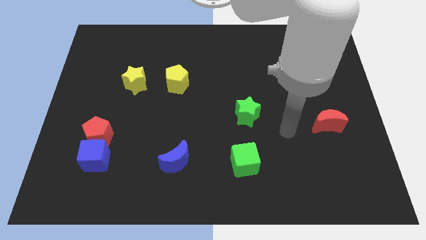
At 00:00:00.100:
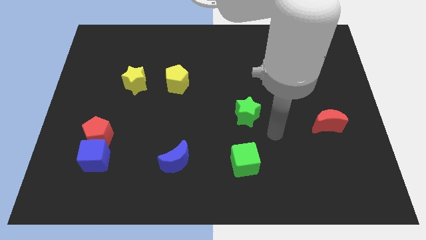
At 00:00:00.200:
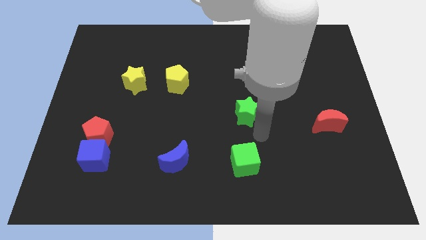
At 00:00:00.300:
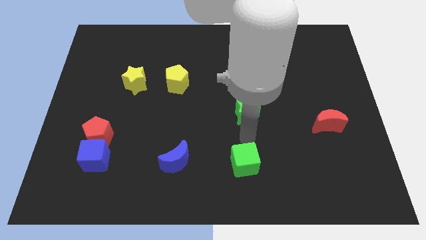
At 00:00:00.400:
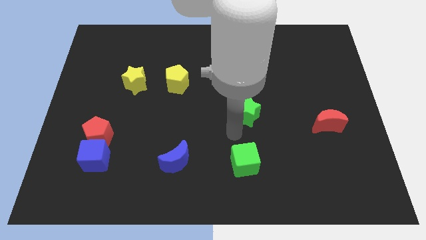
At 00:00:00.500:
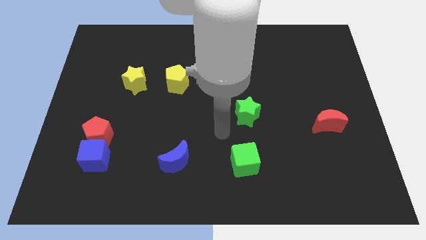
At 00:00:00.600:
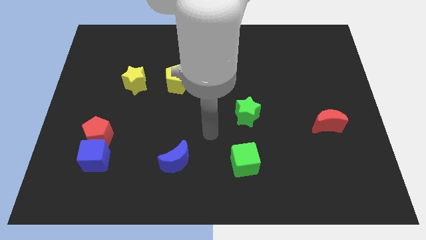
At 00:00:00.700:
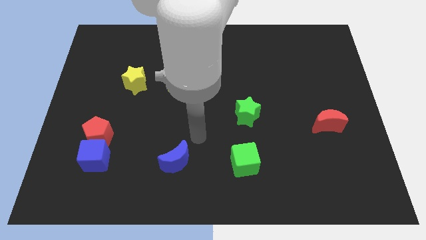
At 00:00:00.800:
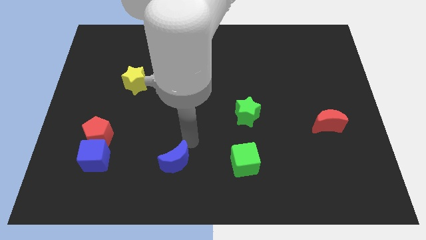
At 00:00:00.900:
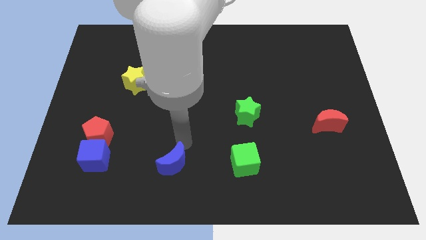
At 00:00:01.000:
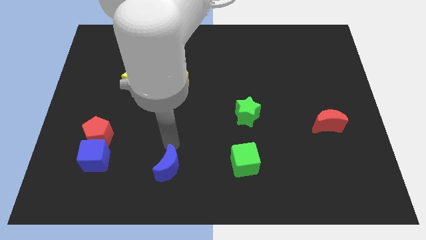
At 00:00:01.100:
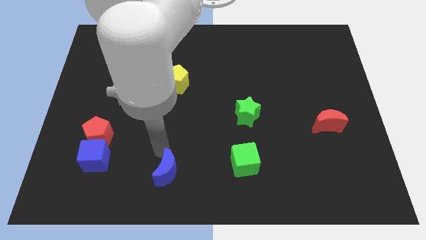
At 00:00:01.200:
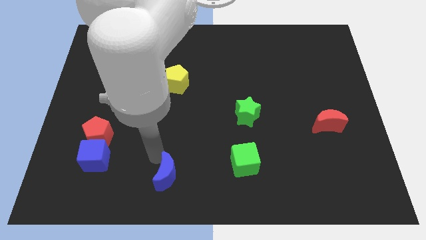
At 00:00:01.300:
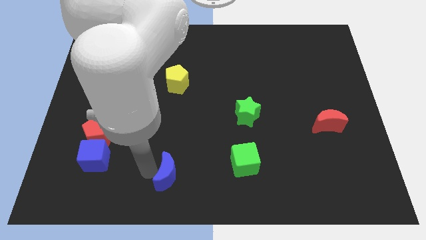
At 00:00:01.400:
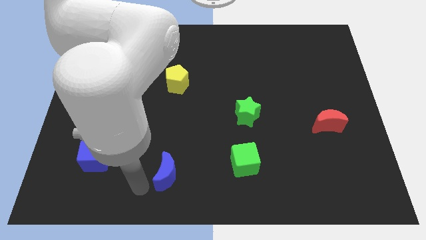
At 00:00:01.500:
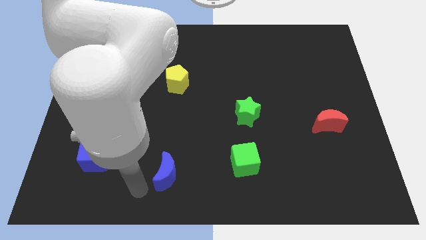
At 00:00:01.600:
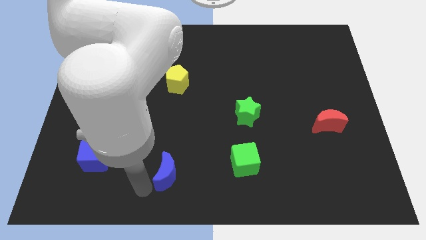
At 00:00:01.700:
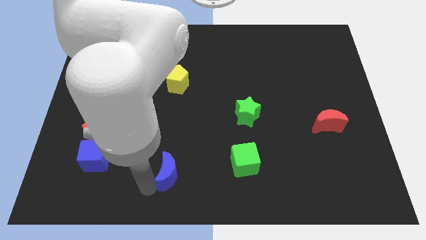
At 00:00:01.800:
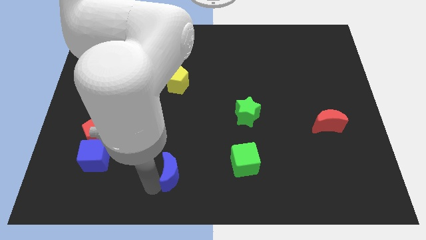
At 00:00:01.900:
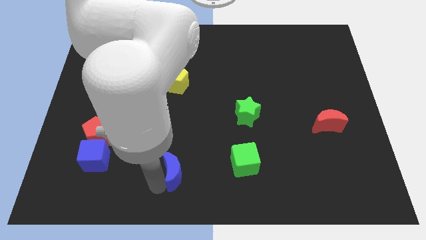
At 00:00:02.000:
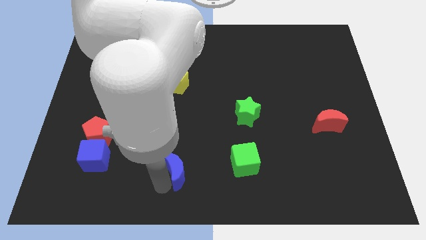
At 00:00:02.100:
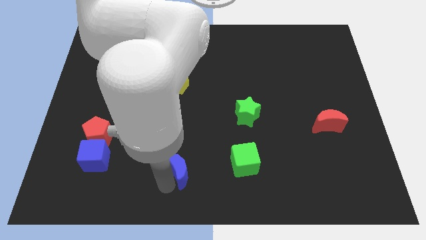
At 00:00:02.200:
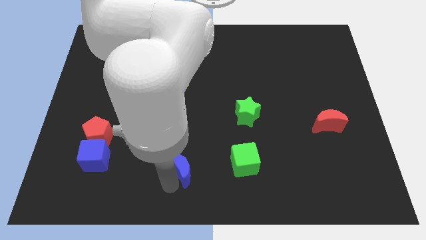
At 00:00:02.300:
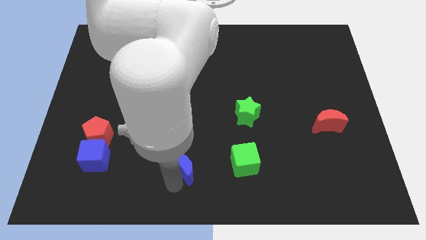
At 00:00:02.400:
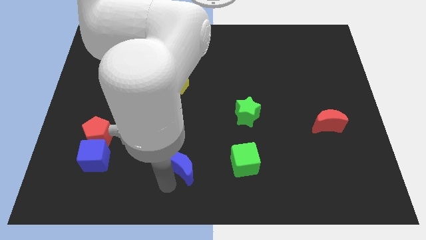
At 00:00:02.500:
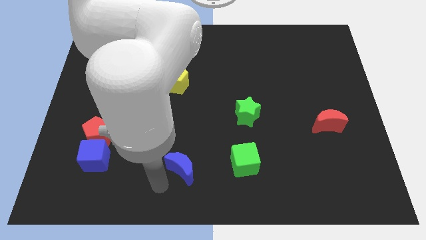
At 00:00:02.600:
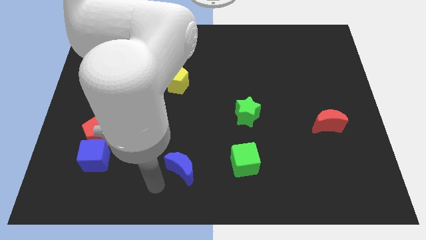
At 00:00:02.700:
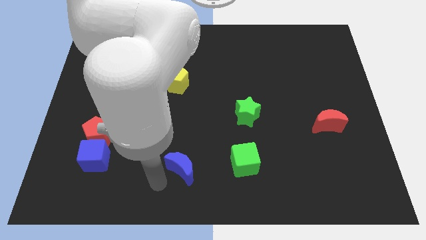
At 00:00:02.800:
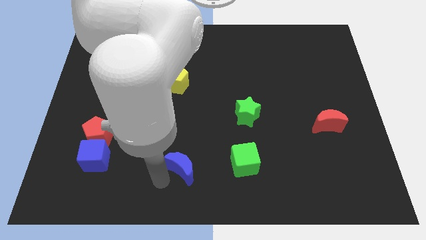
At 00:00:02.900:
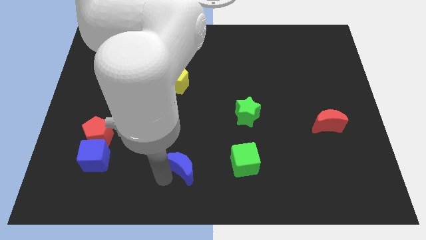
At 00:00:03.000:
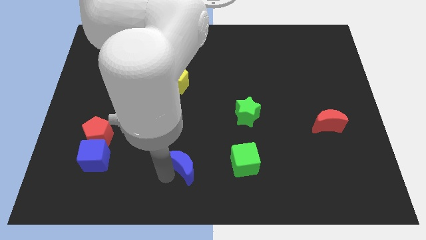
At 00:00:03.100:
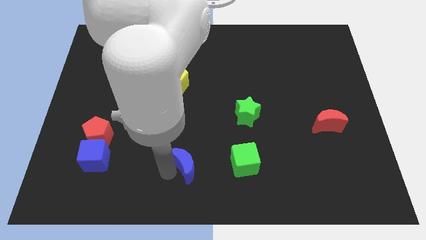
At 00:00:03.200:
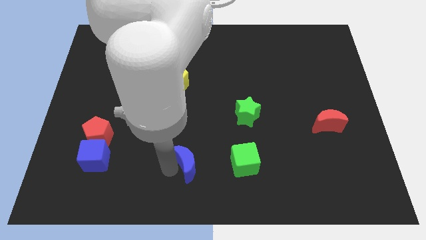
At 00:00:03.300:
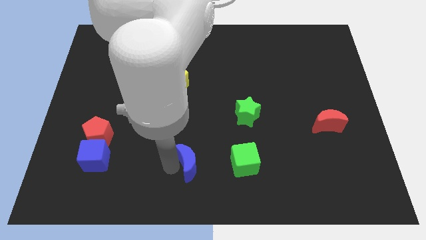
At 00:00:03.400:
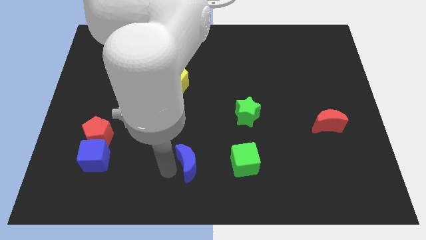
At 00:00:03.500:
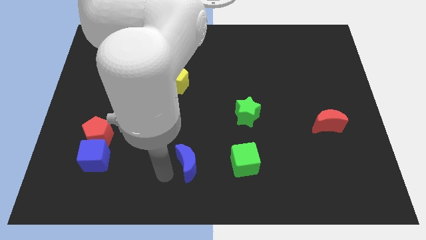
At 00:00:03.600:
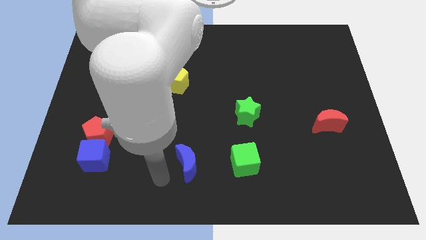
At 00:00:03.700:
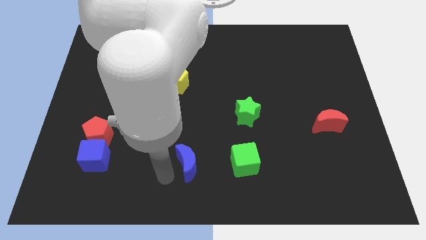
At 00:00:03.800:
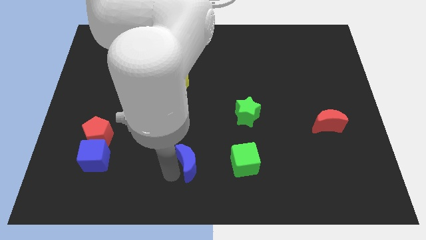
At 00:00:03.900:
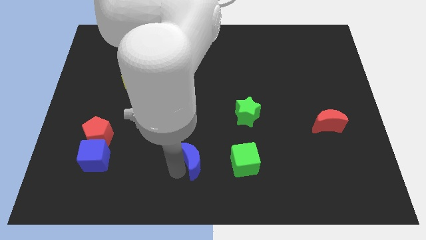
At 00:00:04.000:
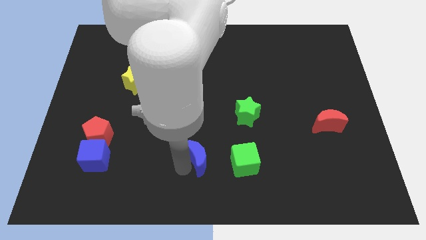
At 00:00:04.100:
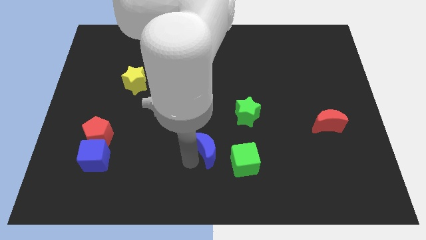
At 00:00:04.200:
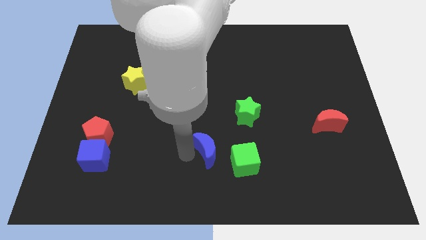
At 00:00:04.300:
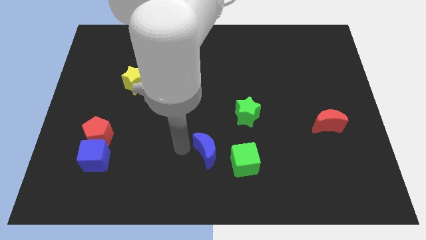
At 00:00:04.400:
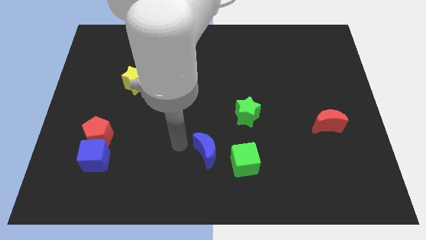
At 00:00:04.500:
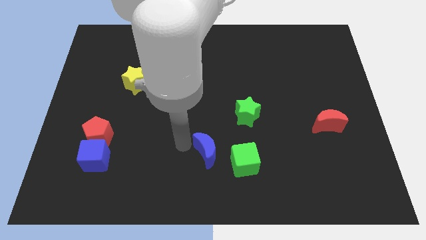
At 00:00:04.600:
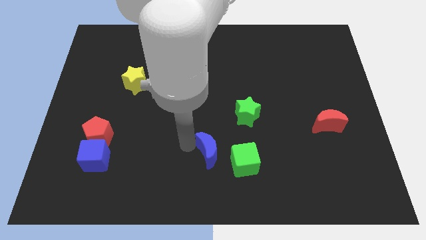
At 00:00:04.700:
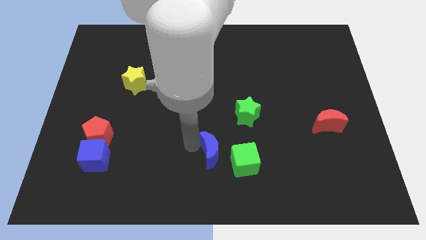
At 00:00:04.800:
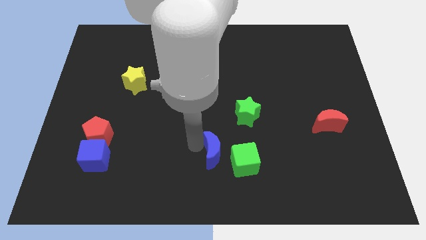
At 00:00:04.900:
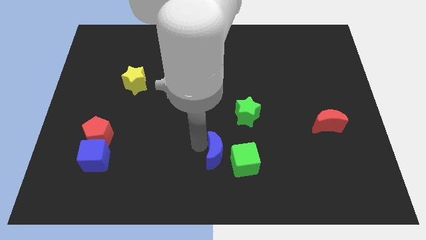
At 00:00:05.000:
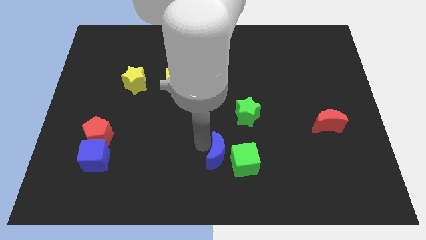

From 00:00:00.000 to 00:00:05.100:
slide the blue moon close to the green cube

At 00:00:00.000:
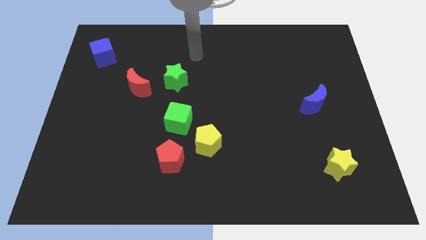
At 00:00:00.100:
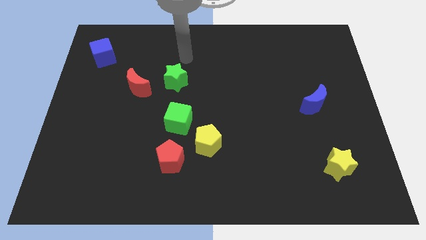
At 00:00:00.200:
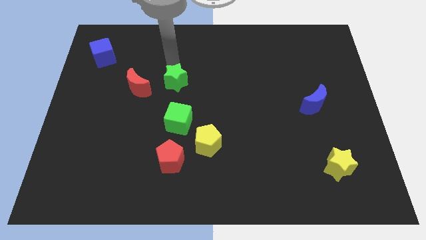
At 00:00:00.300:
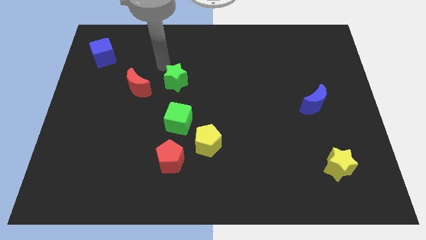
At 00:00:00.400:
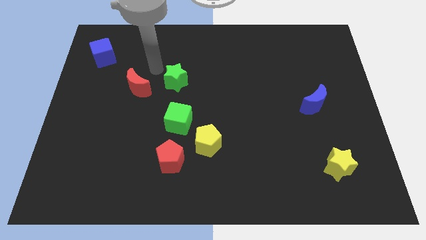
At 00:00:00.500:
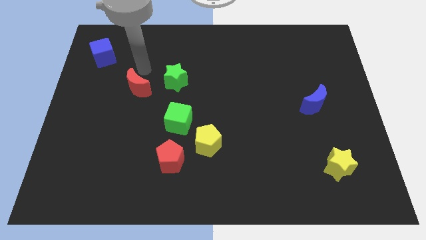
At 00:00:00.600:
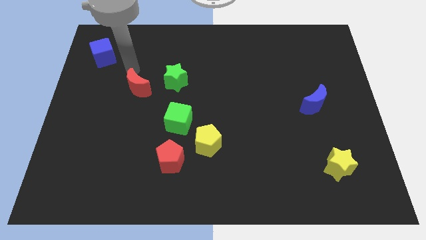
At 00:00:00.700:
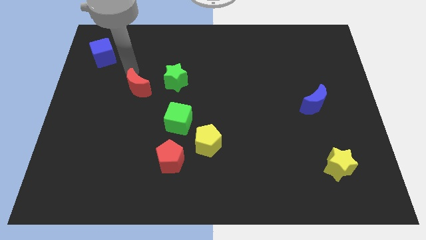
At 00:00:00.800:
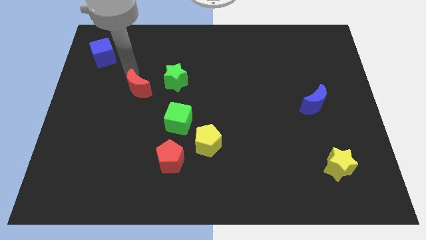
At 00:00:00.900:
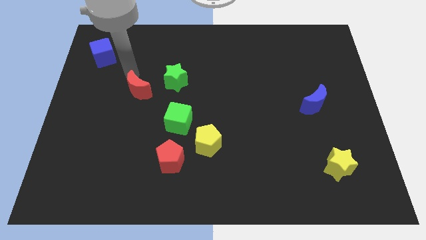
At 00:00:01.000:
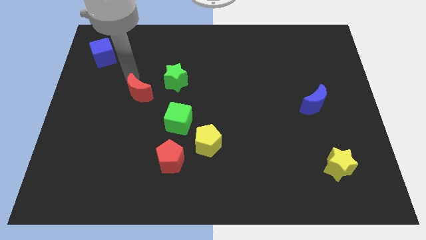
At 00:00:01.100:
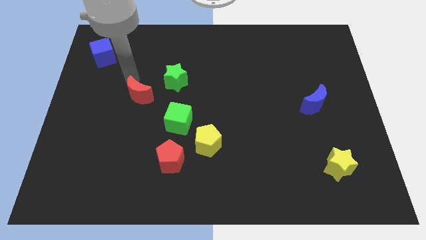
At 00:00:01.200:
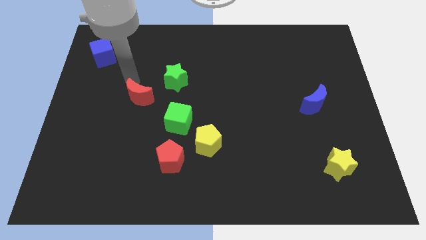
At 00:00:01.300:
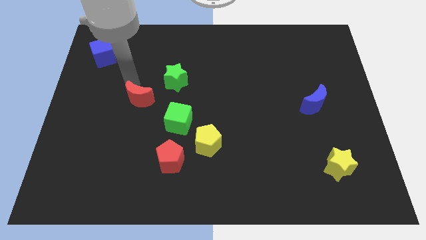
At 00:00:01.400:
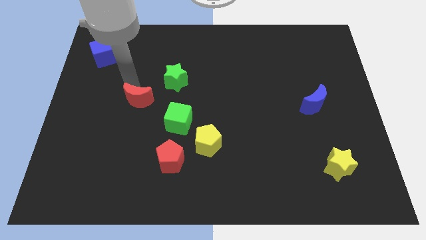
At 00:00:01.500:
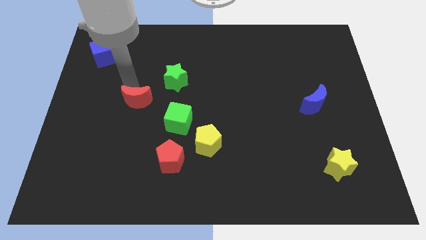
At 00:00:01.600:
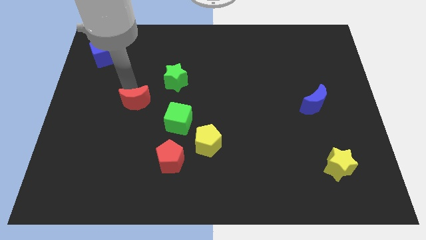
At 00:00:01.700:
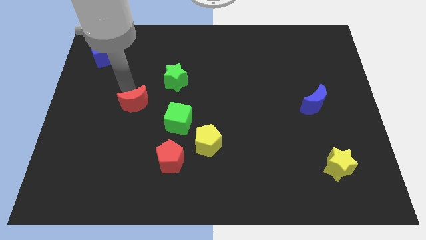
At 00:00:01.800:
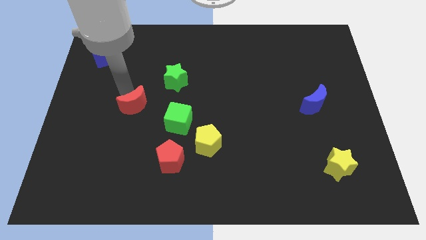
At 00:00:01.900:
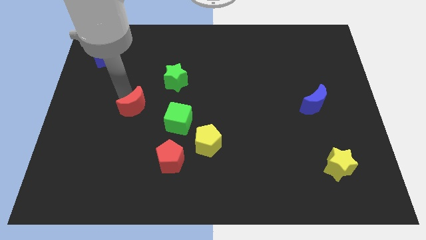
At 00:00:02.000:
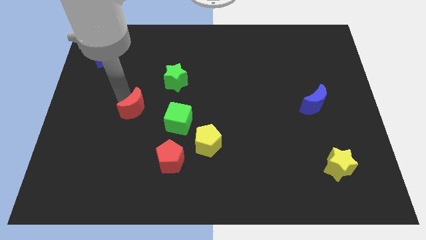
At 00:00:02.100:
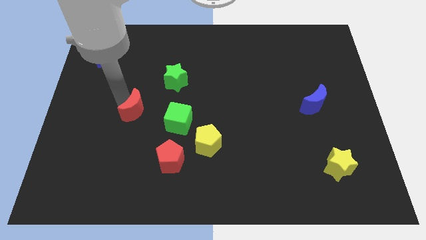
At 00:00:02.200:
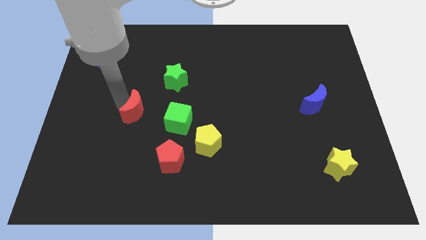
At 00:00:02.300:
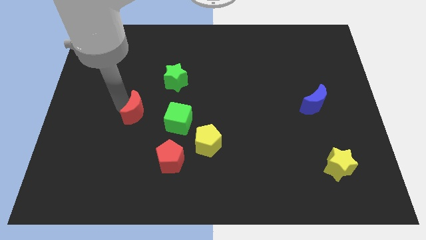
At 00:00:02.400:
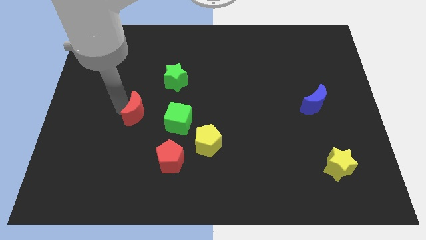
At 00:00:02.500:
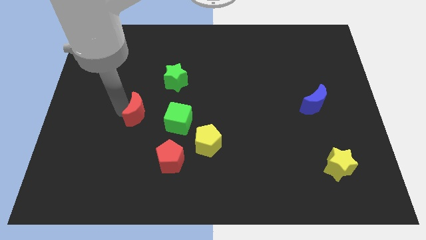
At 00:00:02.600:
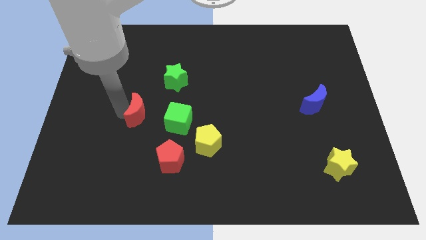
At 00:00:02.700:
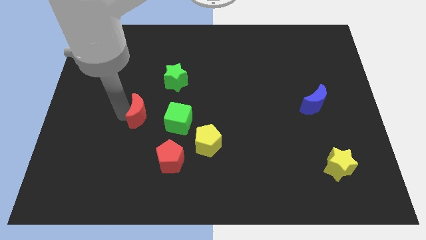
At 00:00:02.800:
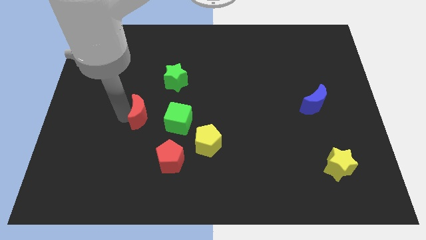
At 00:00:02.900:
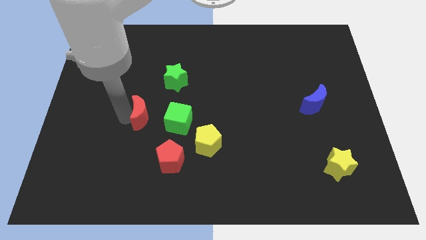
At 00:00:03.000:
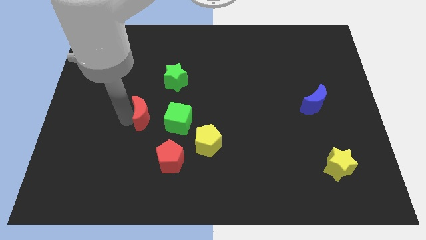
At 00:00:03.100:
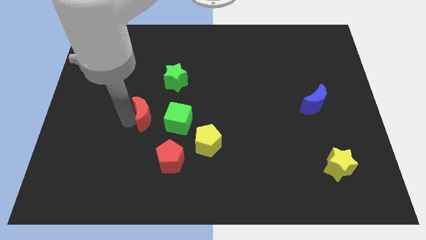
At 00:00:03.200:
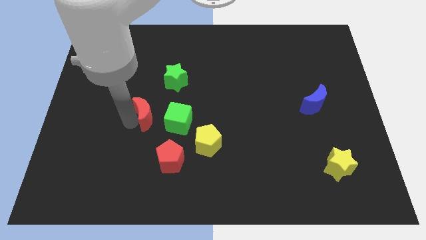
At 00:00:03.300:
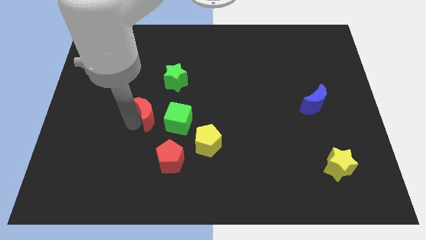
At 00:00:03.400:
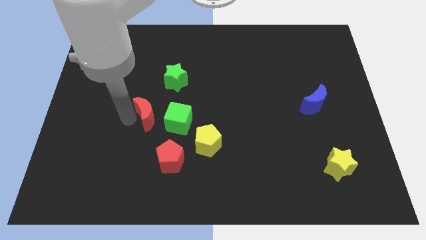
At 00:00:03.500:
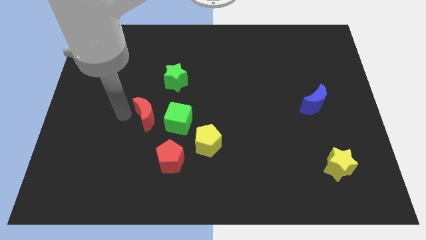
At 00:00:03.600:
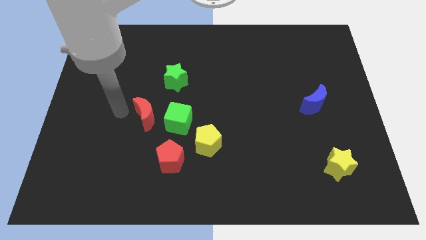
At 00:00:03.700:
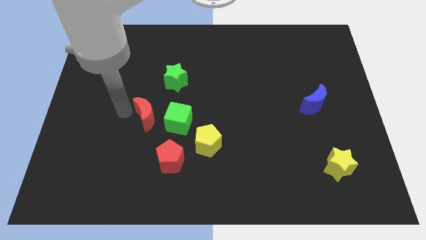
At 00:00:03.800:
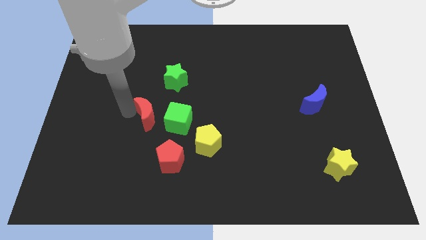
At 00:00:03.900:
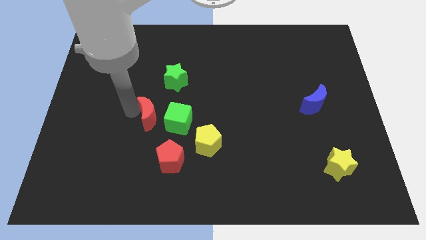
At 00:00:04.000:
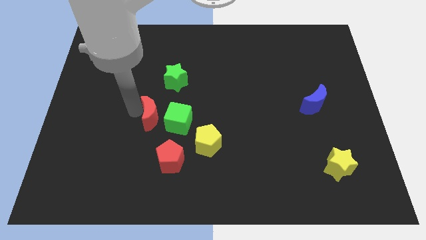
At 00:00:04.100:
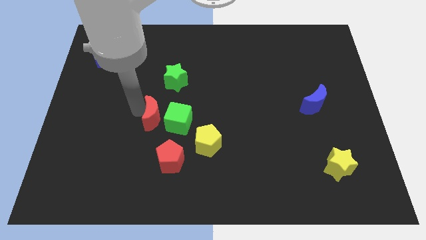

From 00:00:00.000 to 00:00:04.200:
put the red moon next to the green cube
